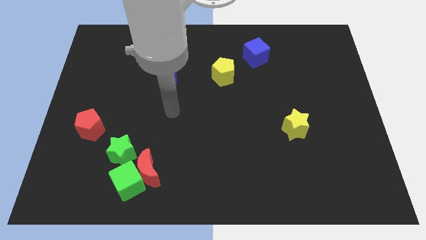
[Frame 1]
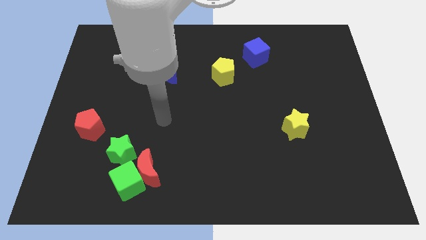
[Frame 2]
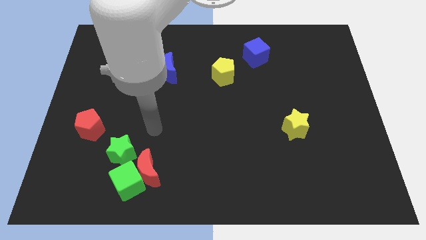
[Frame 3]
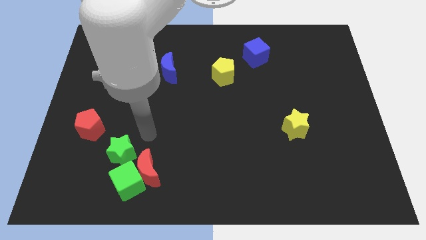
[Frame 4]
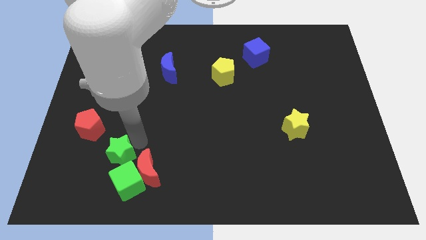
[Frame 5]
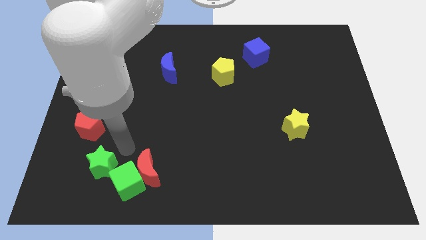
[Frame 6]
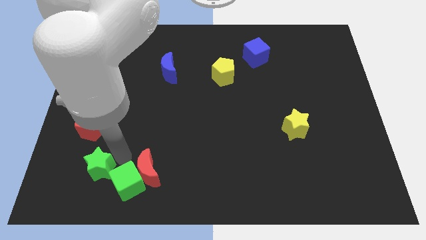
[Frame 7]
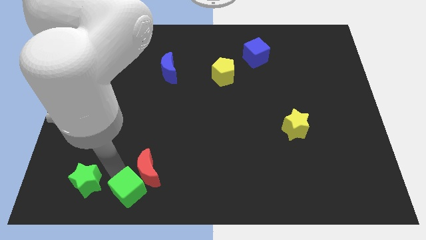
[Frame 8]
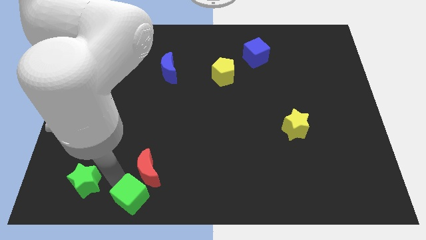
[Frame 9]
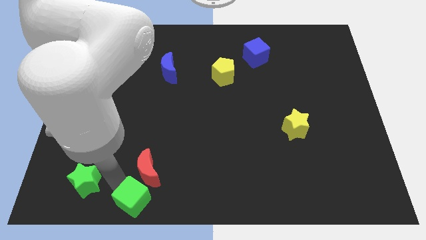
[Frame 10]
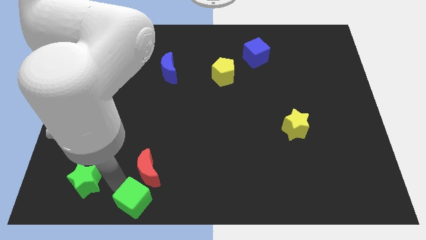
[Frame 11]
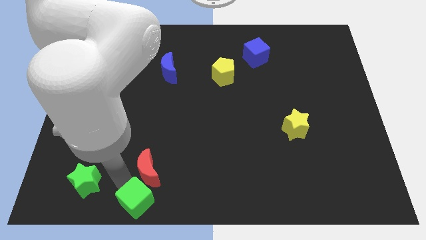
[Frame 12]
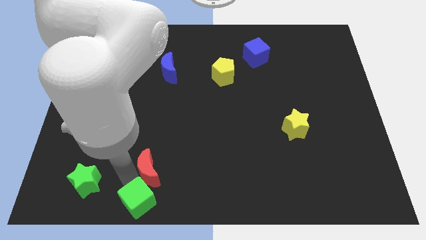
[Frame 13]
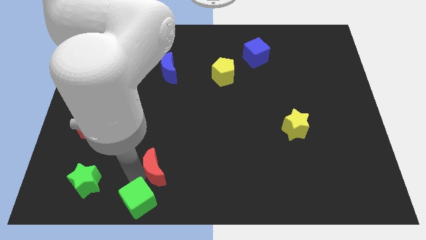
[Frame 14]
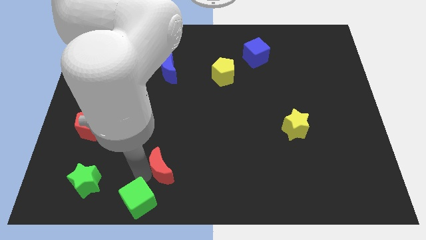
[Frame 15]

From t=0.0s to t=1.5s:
move the red moon away from the green cube and green star

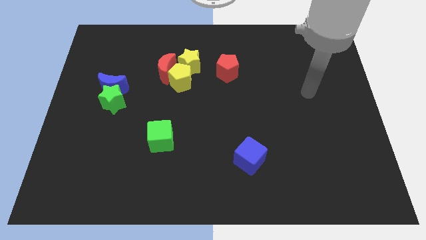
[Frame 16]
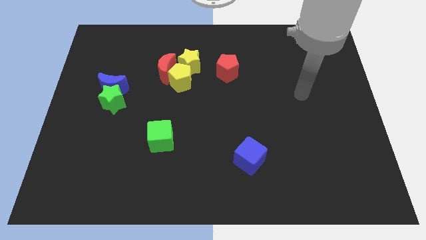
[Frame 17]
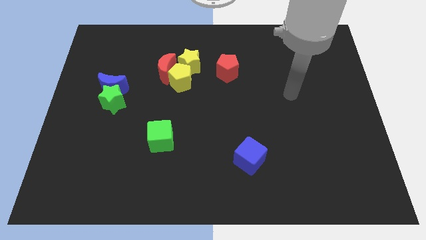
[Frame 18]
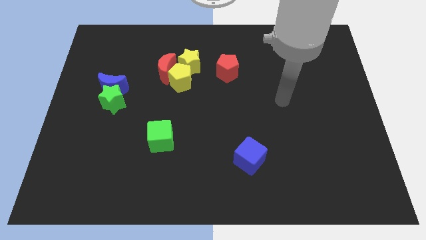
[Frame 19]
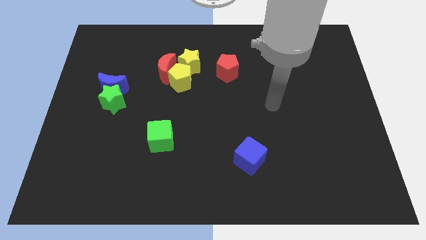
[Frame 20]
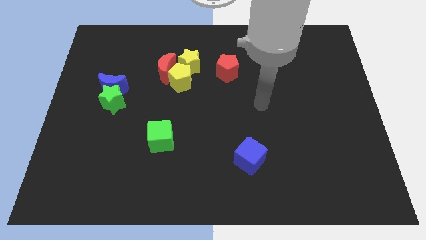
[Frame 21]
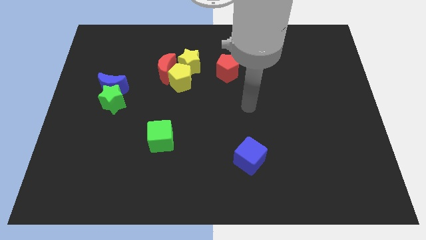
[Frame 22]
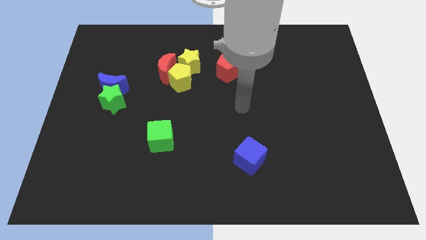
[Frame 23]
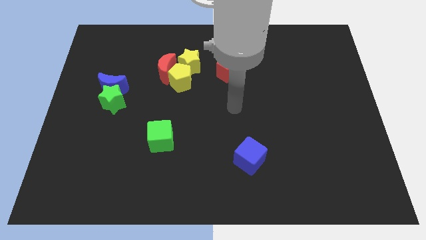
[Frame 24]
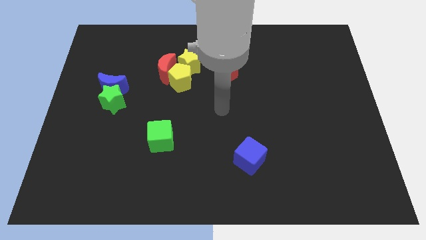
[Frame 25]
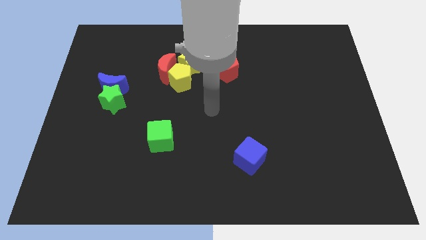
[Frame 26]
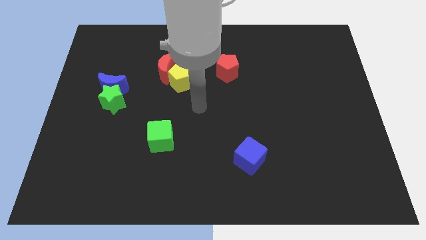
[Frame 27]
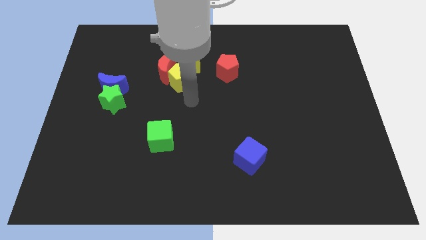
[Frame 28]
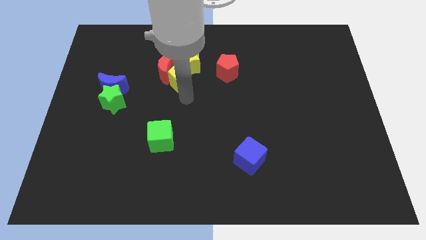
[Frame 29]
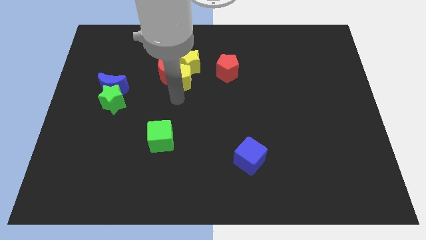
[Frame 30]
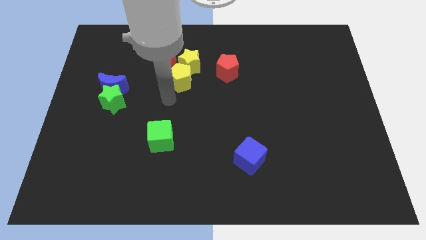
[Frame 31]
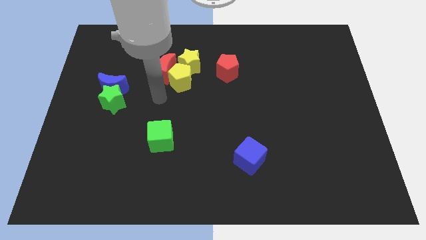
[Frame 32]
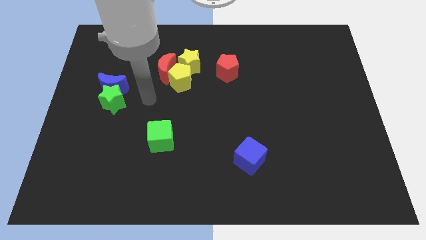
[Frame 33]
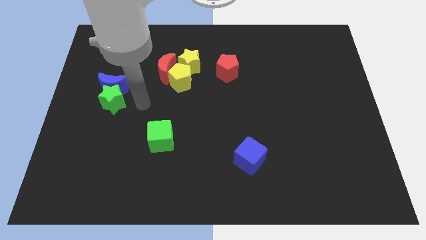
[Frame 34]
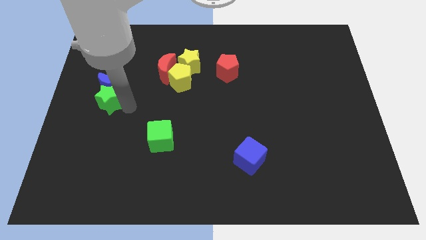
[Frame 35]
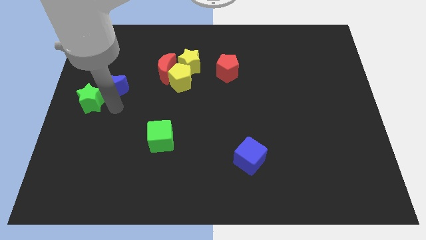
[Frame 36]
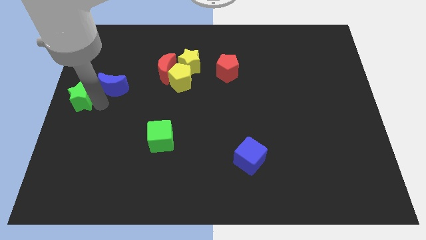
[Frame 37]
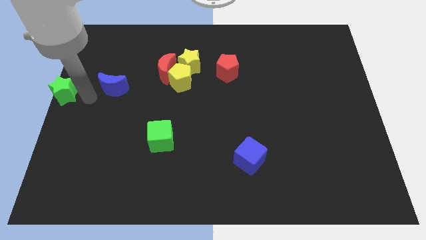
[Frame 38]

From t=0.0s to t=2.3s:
separate the blue moon from the green star

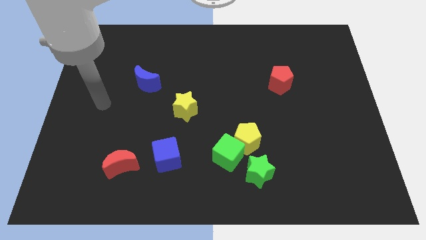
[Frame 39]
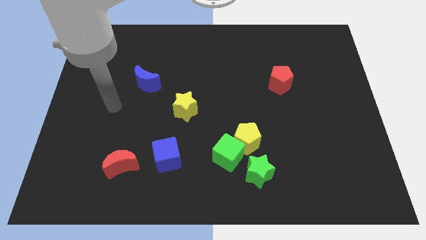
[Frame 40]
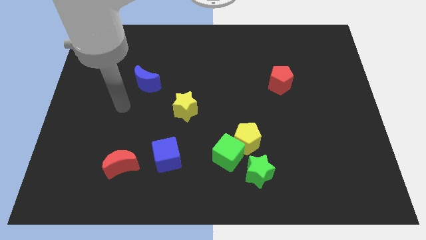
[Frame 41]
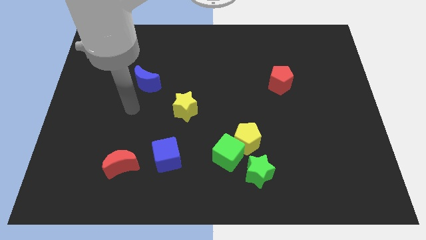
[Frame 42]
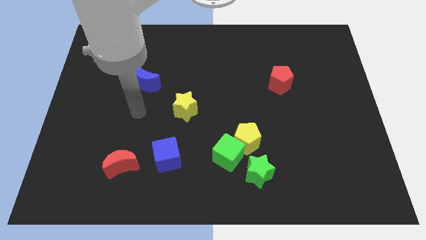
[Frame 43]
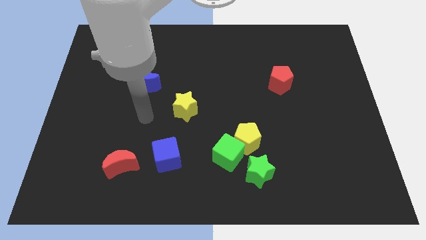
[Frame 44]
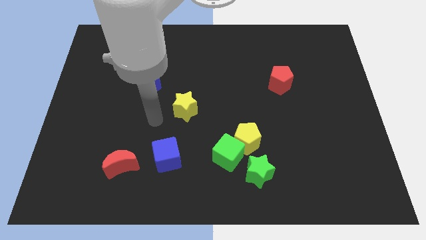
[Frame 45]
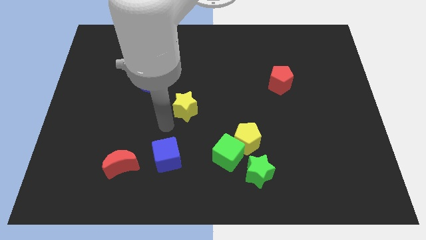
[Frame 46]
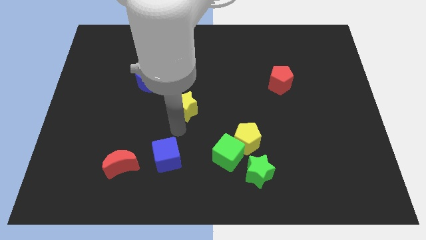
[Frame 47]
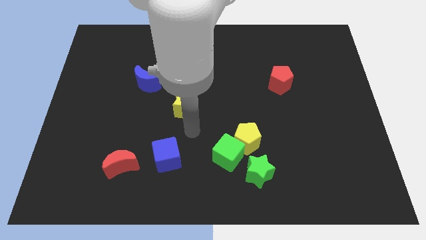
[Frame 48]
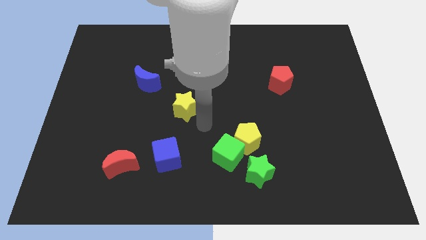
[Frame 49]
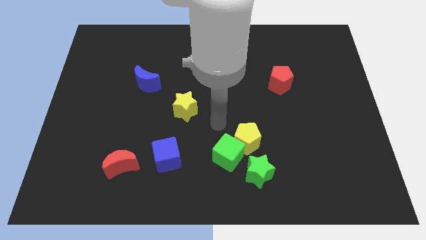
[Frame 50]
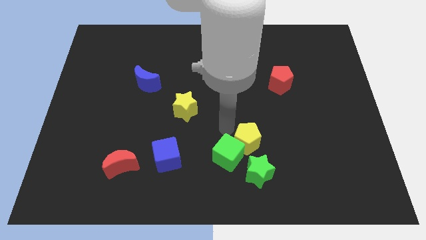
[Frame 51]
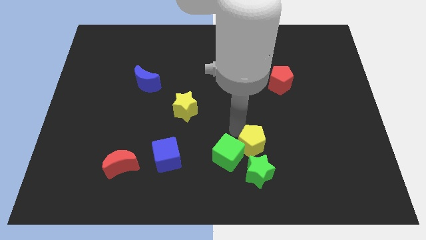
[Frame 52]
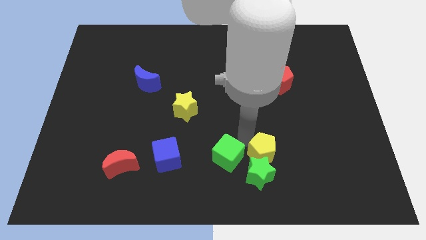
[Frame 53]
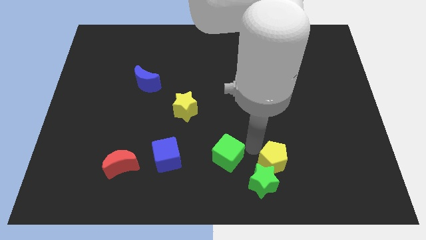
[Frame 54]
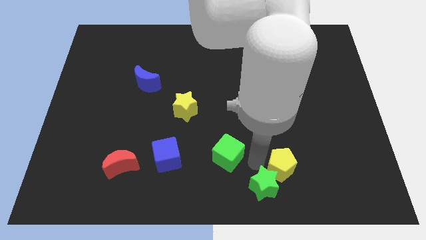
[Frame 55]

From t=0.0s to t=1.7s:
move the green cube away from the yellow pentagon and green star

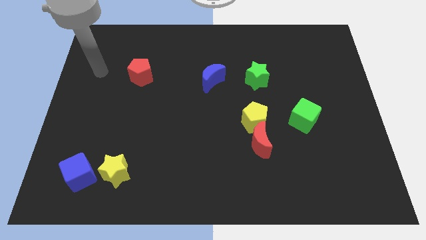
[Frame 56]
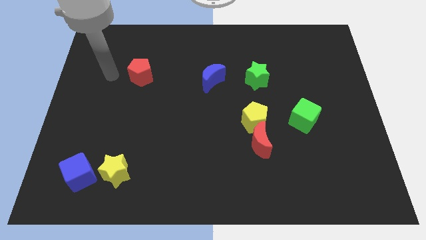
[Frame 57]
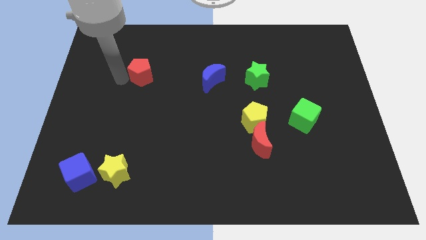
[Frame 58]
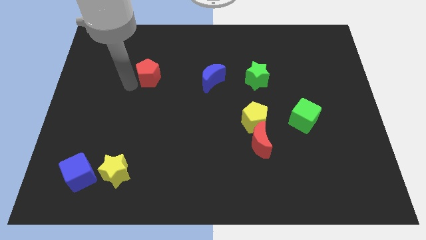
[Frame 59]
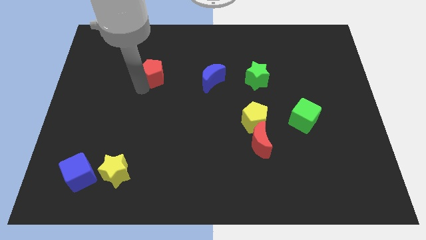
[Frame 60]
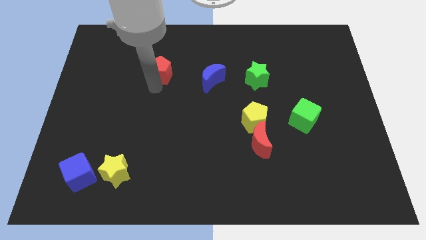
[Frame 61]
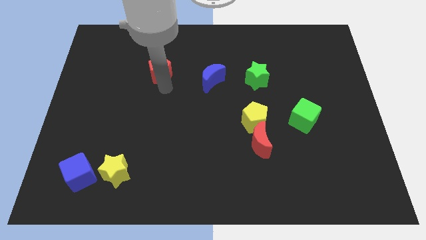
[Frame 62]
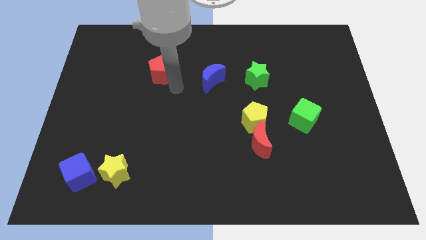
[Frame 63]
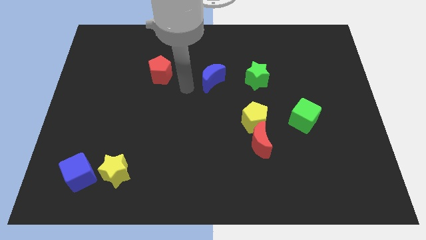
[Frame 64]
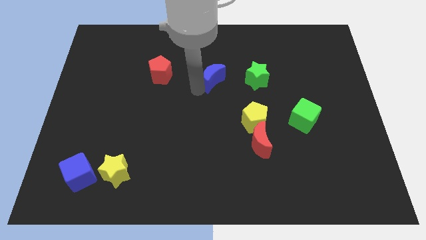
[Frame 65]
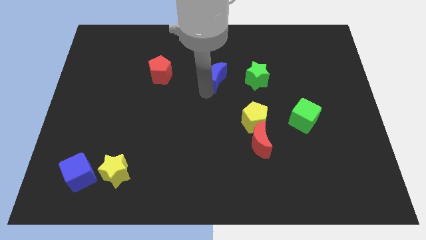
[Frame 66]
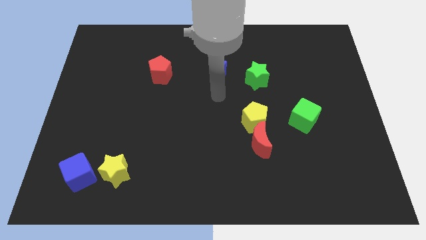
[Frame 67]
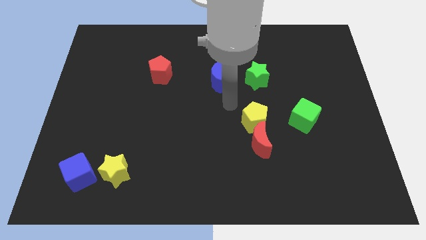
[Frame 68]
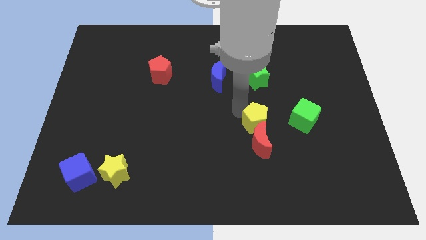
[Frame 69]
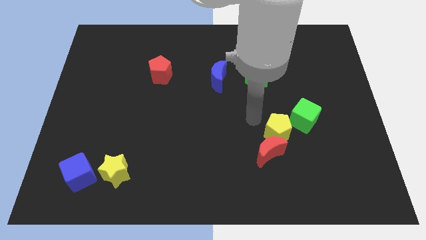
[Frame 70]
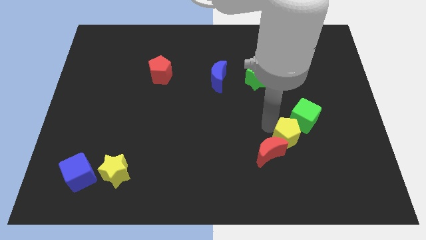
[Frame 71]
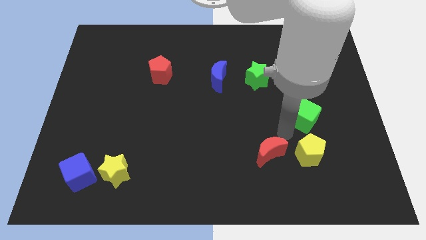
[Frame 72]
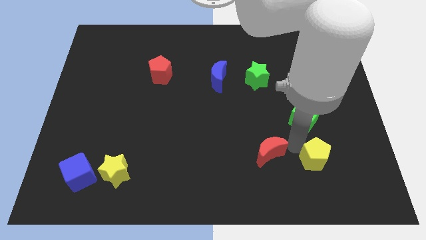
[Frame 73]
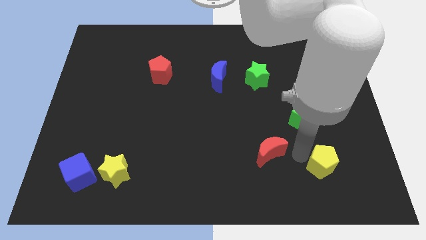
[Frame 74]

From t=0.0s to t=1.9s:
pull the red moon apart from the yellow pentagon

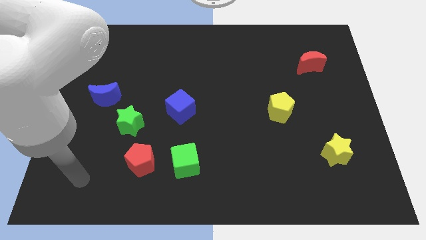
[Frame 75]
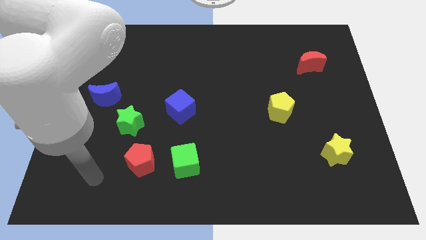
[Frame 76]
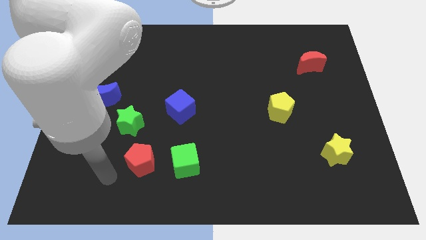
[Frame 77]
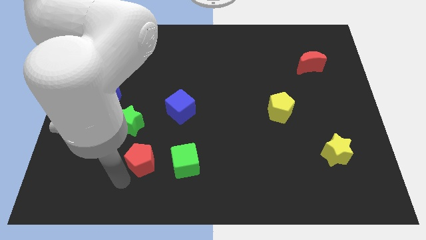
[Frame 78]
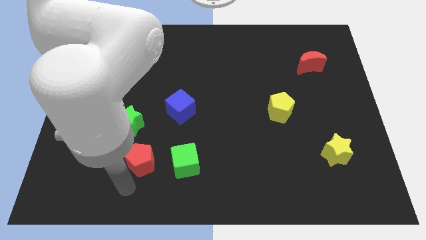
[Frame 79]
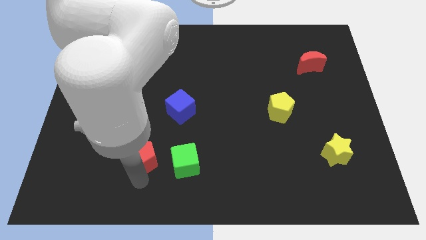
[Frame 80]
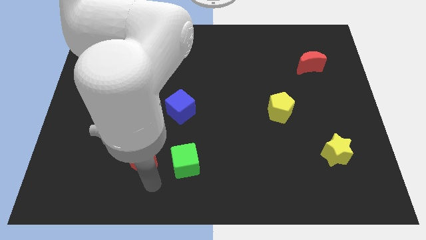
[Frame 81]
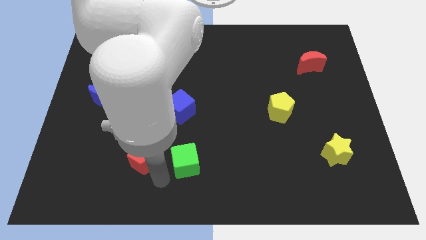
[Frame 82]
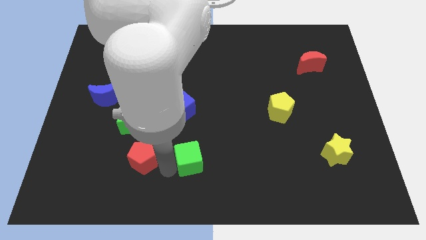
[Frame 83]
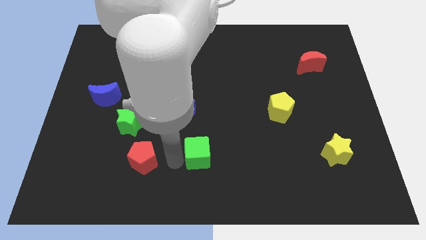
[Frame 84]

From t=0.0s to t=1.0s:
pull the red pentagon apart from the green cube

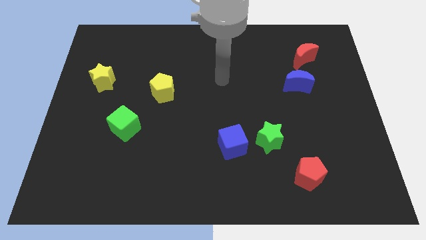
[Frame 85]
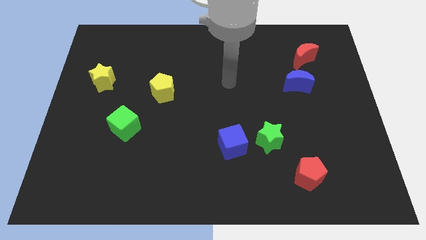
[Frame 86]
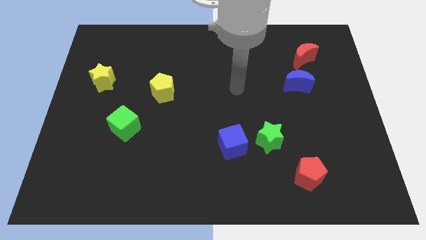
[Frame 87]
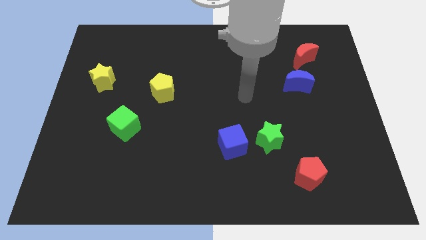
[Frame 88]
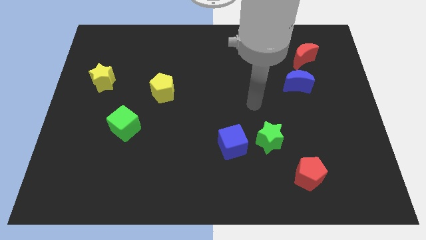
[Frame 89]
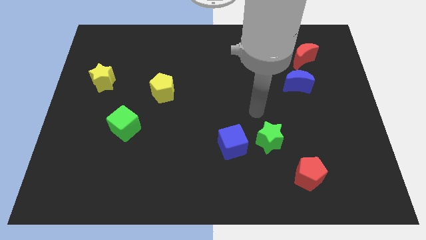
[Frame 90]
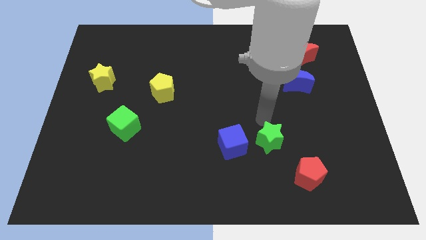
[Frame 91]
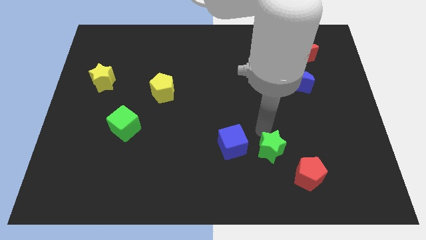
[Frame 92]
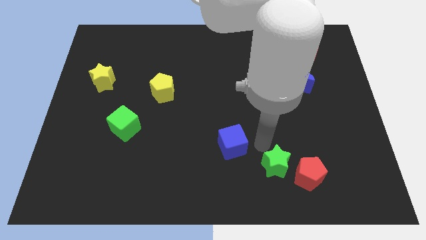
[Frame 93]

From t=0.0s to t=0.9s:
separate the blue cube from the green star
